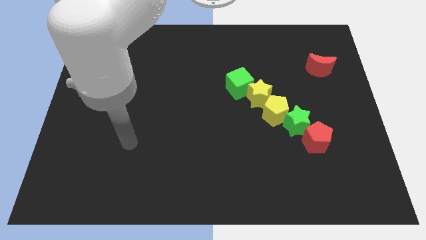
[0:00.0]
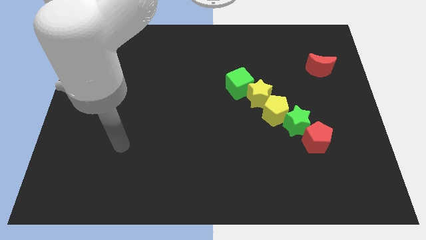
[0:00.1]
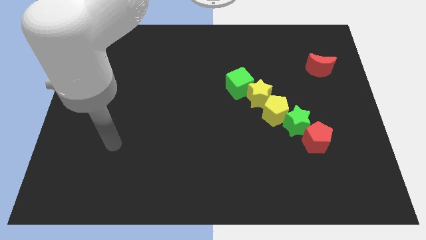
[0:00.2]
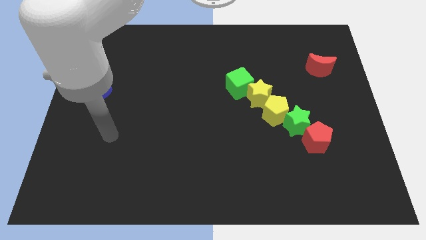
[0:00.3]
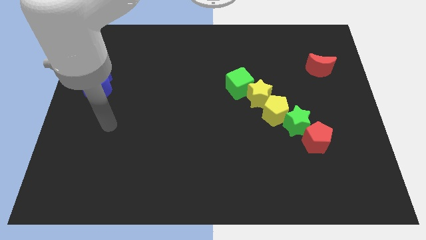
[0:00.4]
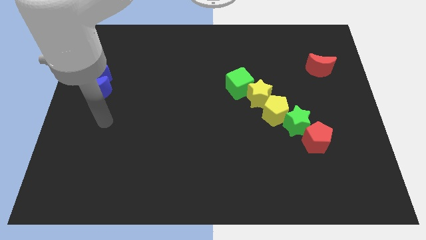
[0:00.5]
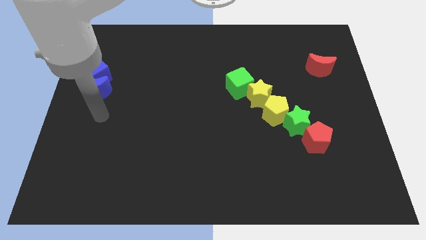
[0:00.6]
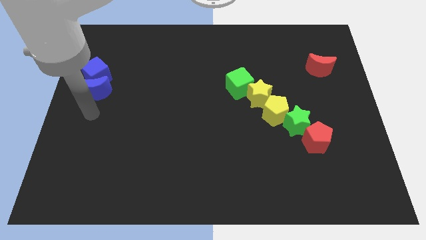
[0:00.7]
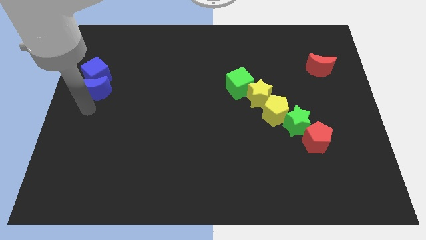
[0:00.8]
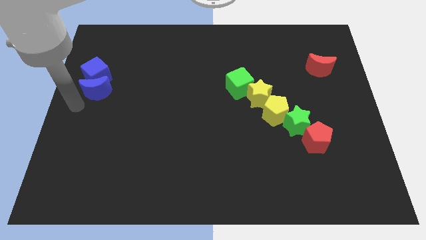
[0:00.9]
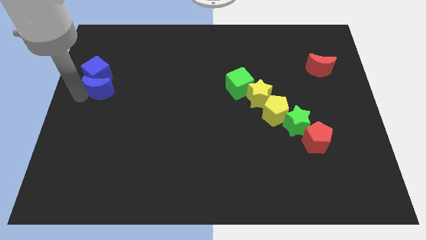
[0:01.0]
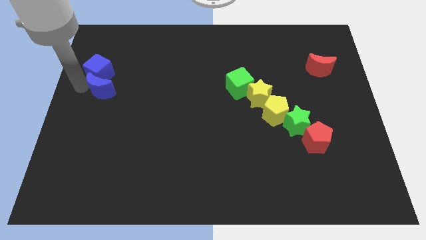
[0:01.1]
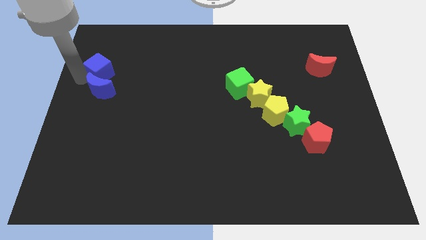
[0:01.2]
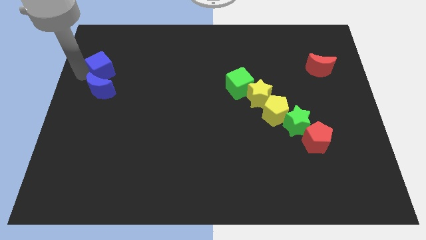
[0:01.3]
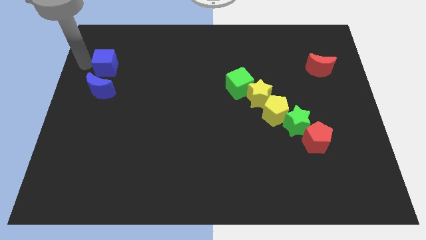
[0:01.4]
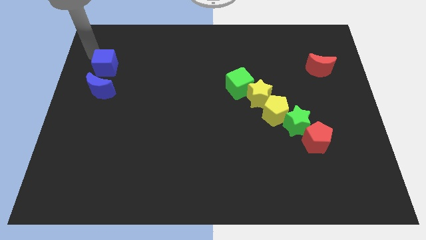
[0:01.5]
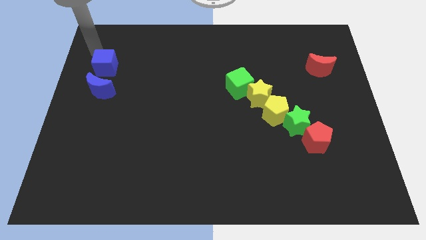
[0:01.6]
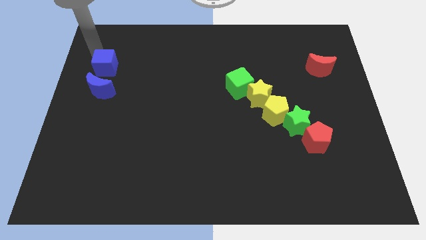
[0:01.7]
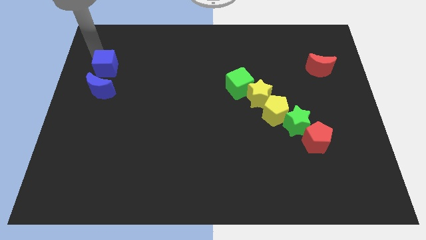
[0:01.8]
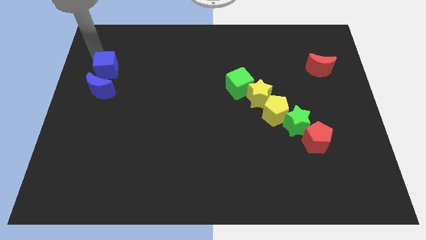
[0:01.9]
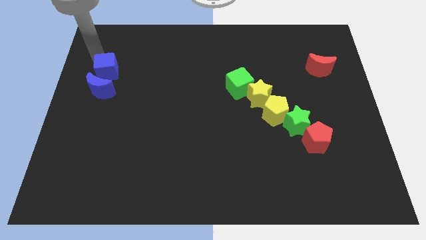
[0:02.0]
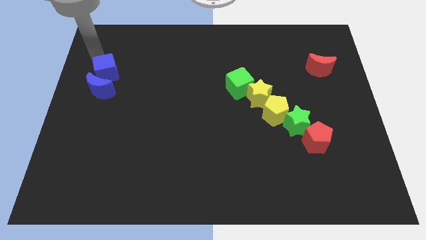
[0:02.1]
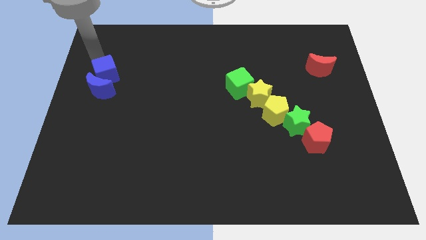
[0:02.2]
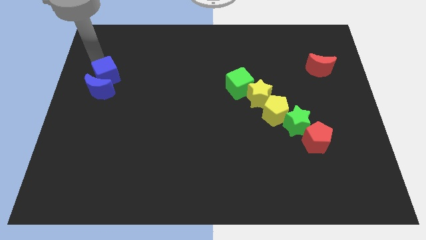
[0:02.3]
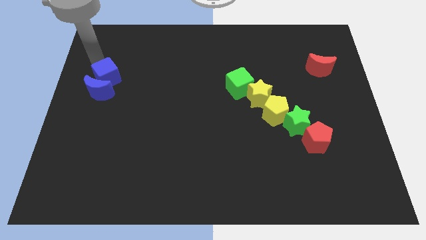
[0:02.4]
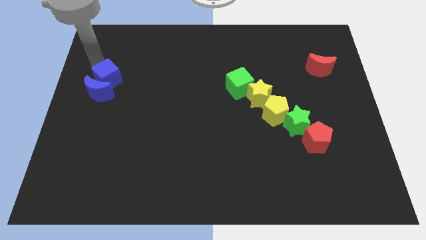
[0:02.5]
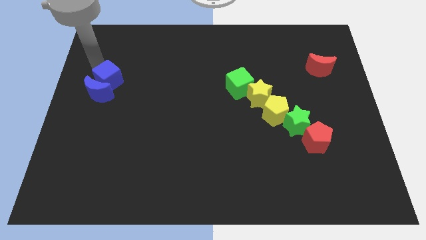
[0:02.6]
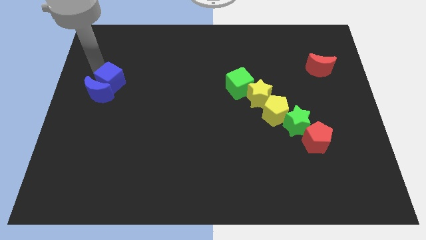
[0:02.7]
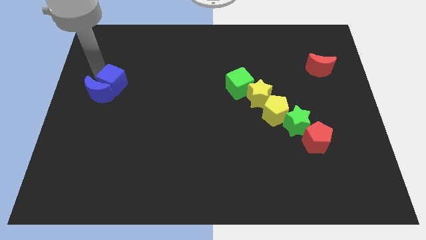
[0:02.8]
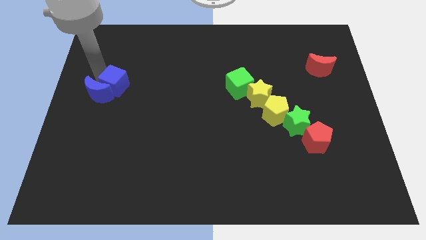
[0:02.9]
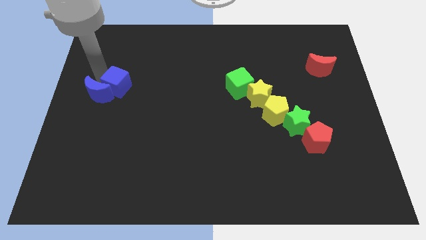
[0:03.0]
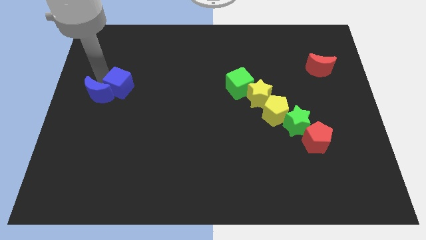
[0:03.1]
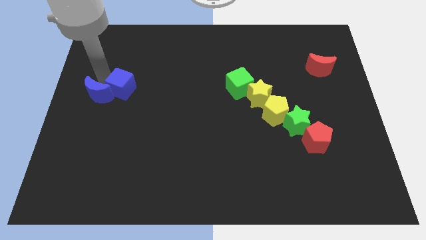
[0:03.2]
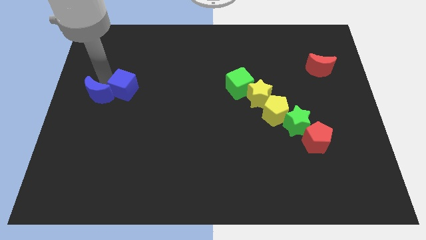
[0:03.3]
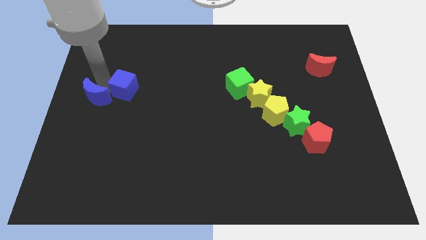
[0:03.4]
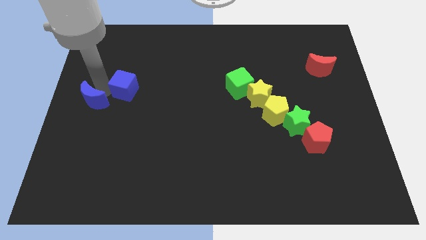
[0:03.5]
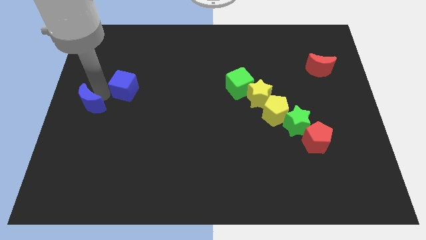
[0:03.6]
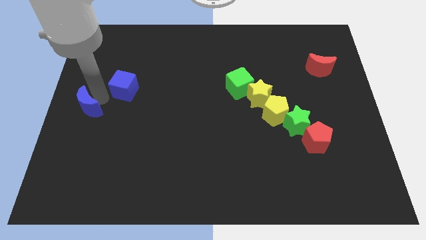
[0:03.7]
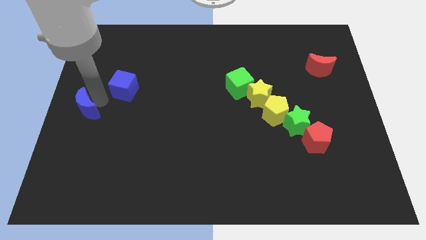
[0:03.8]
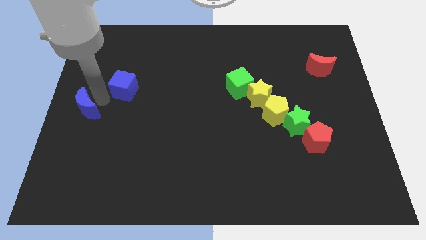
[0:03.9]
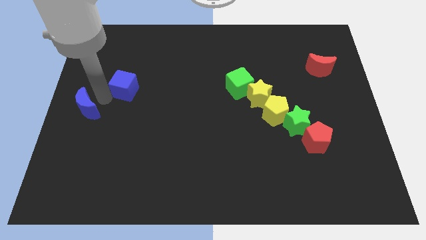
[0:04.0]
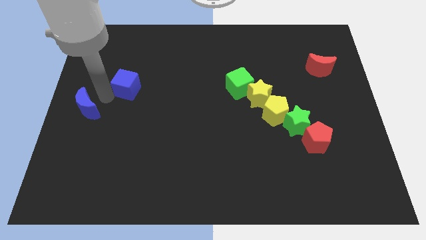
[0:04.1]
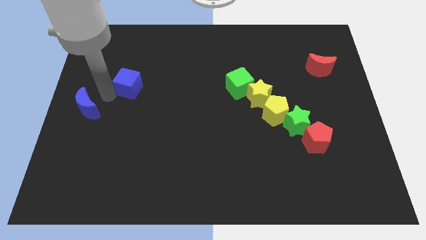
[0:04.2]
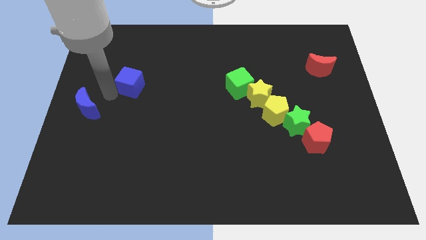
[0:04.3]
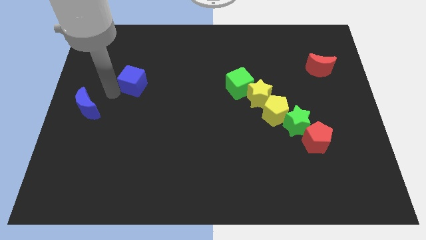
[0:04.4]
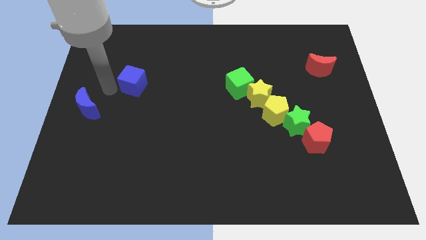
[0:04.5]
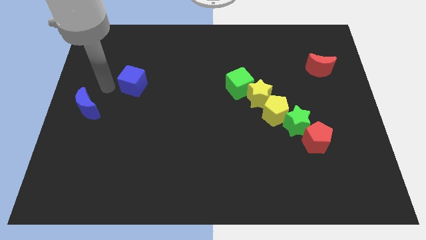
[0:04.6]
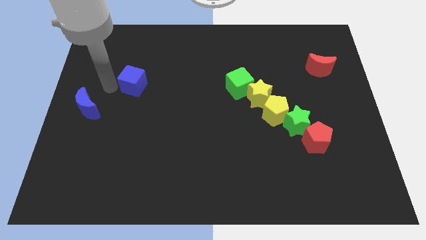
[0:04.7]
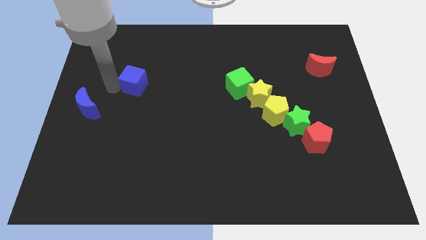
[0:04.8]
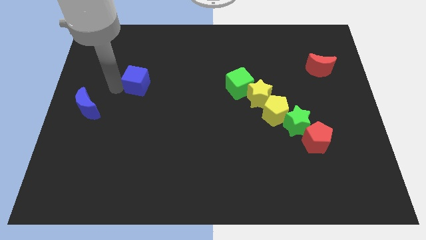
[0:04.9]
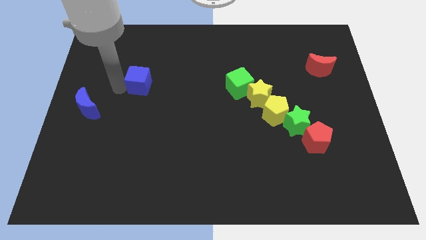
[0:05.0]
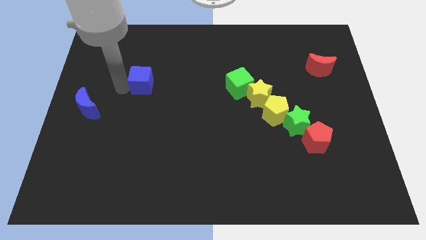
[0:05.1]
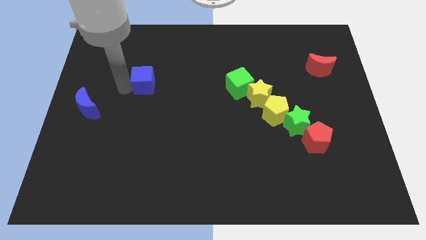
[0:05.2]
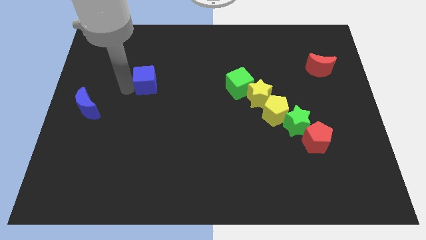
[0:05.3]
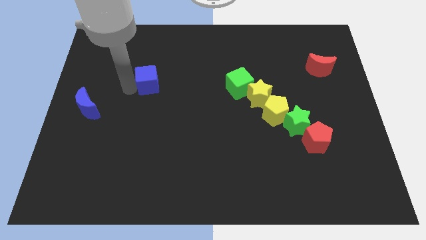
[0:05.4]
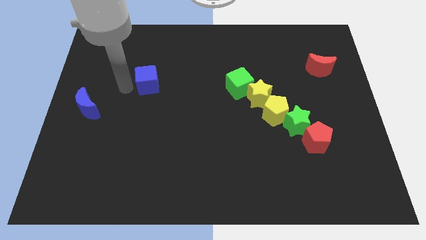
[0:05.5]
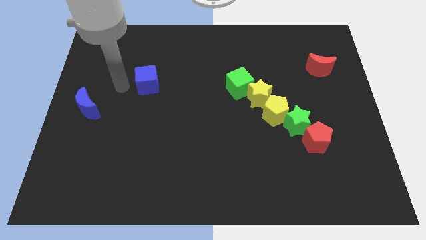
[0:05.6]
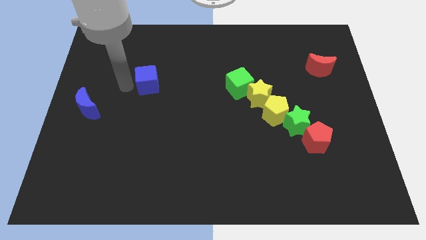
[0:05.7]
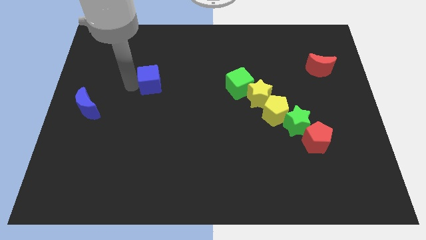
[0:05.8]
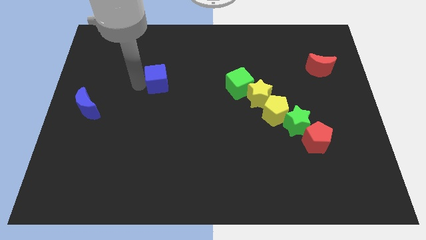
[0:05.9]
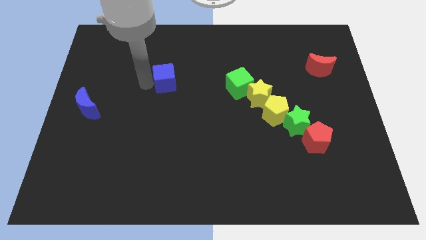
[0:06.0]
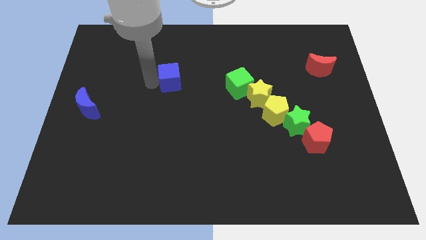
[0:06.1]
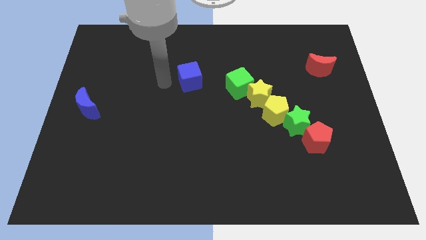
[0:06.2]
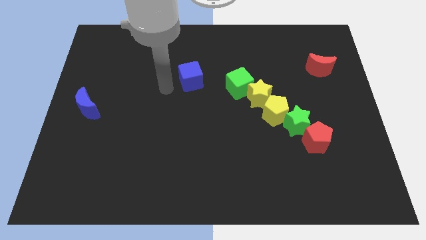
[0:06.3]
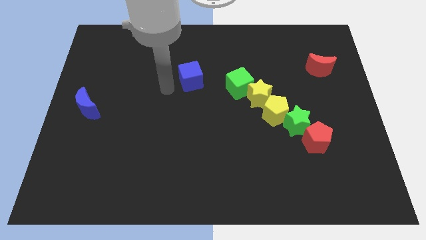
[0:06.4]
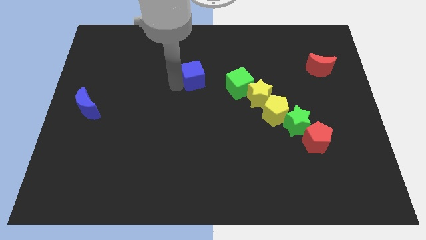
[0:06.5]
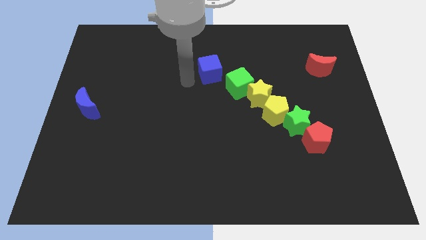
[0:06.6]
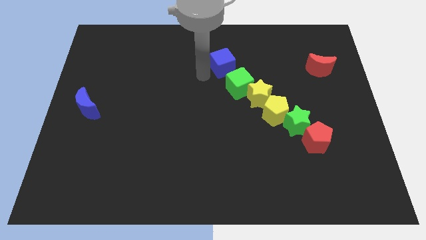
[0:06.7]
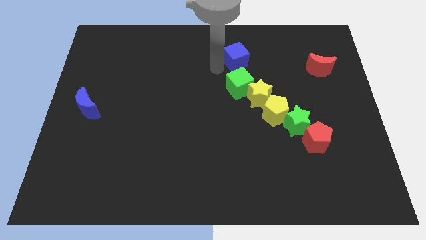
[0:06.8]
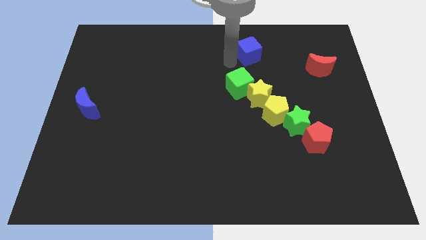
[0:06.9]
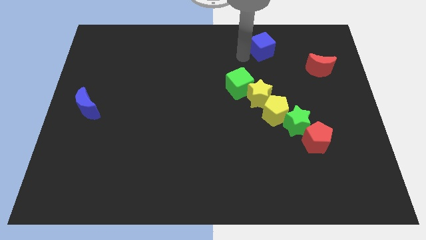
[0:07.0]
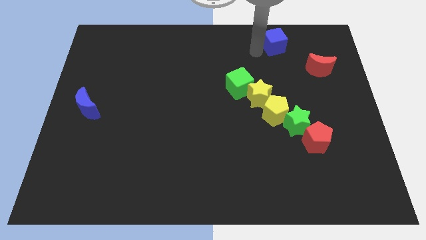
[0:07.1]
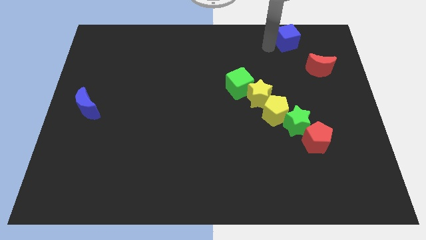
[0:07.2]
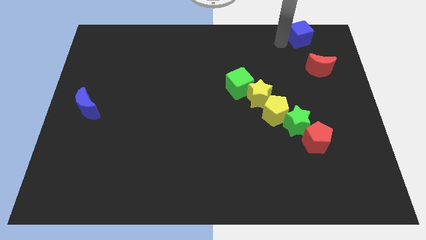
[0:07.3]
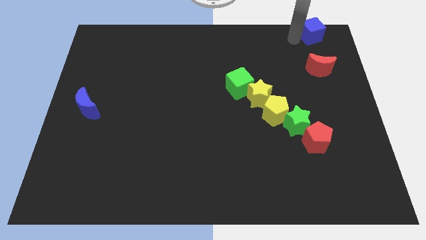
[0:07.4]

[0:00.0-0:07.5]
move the blue cube to the top right
